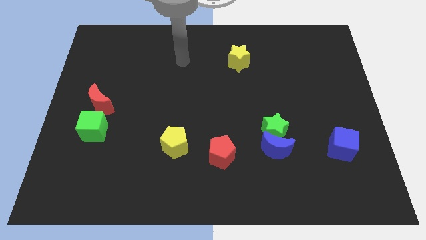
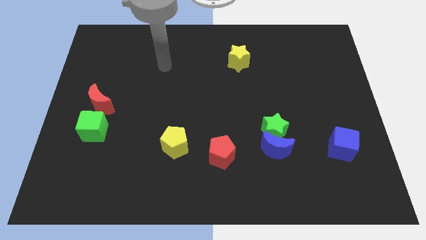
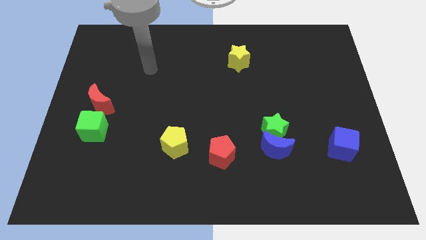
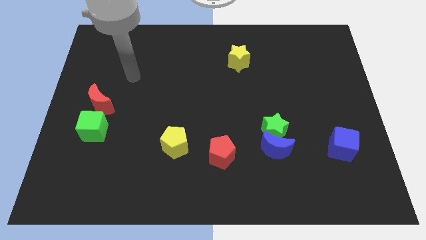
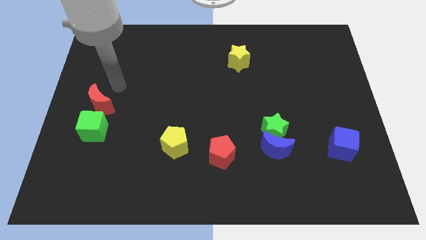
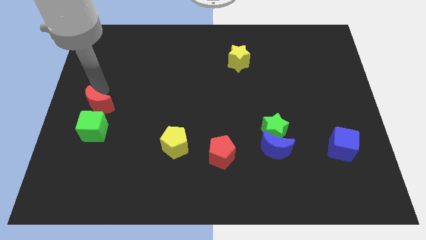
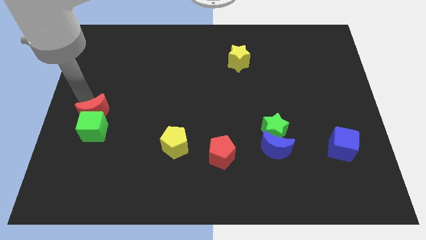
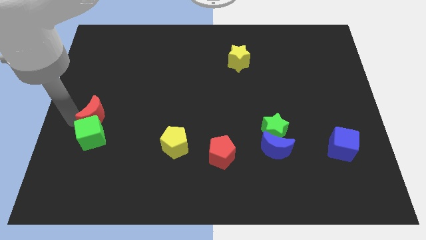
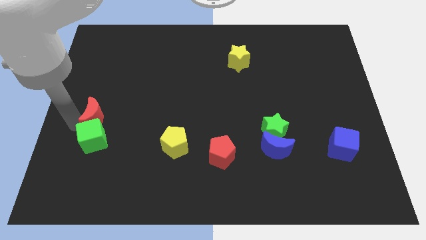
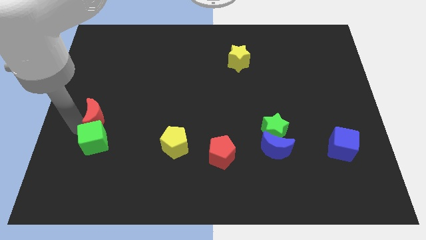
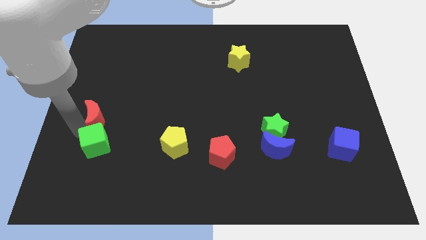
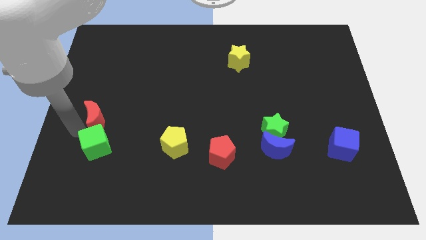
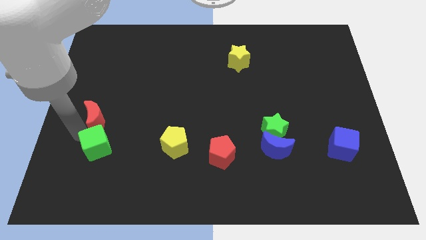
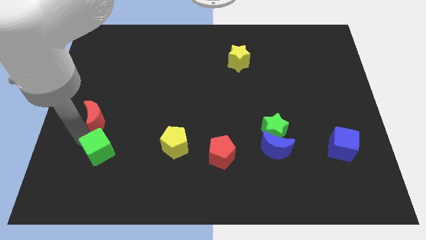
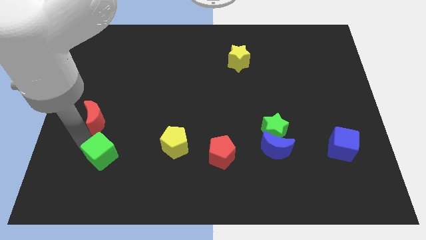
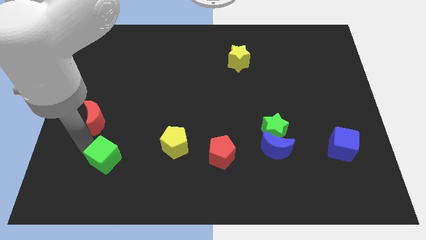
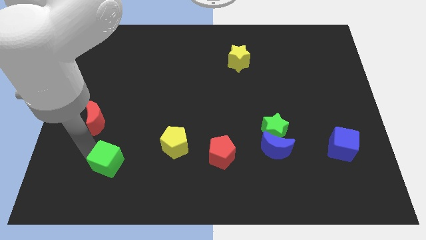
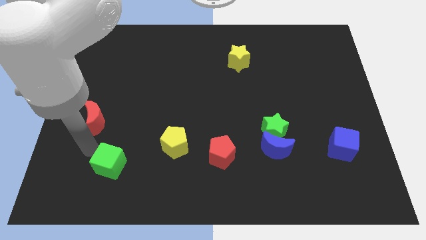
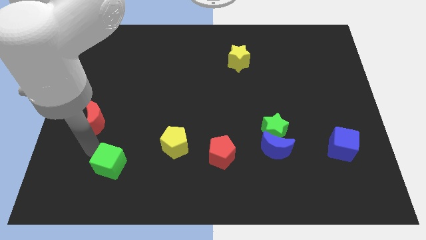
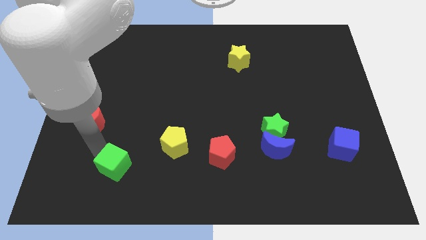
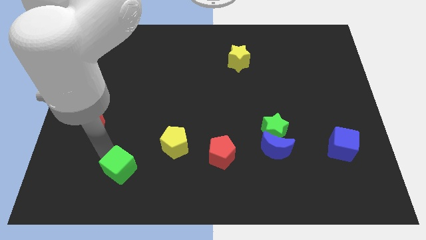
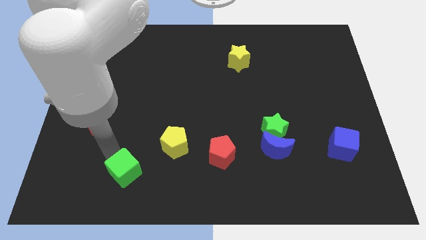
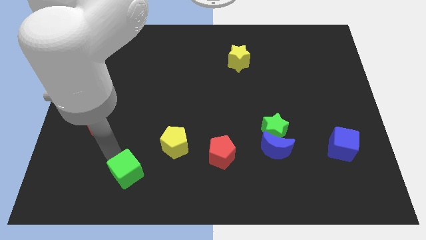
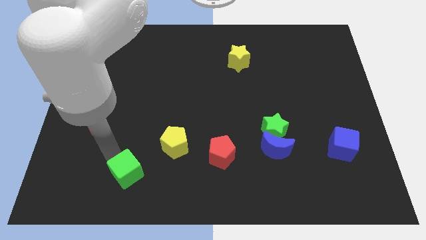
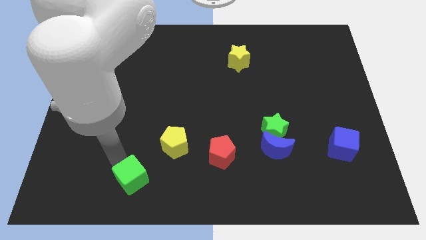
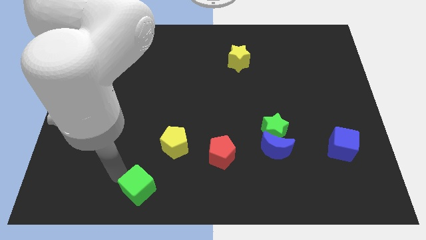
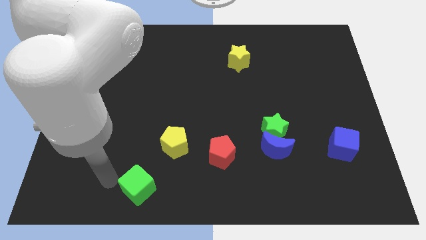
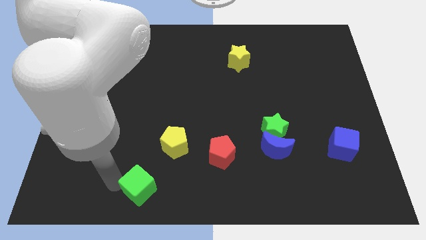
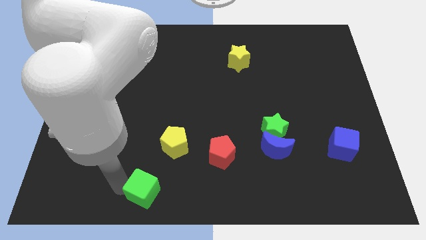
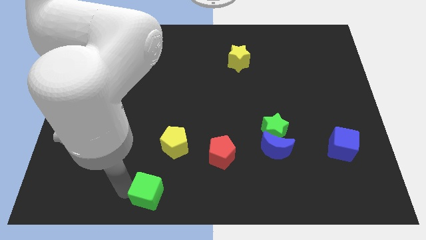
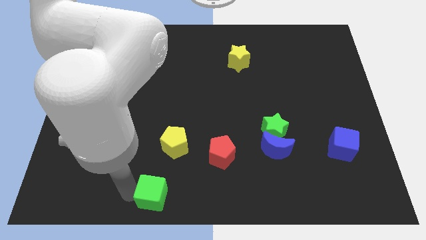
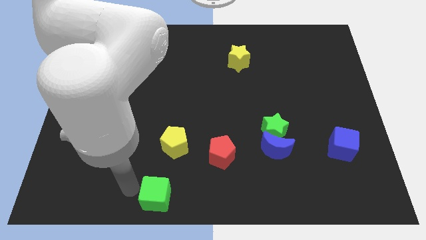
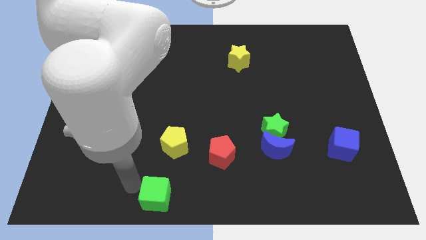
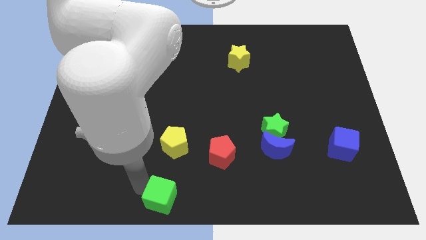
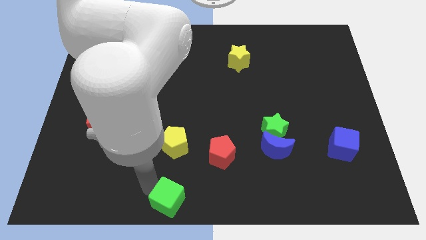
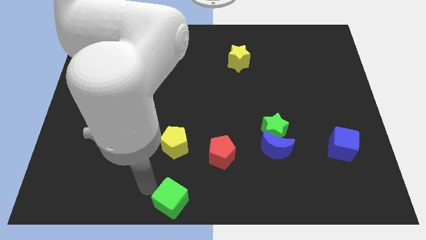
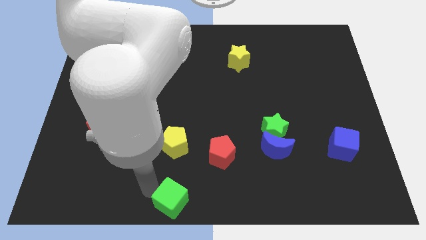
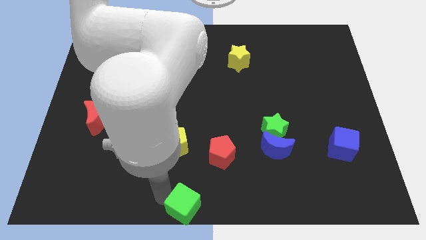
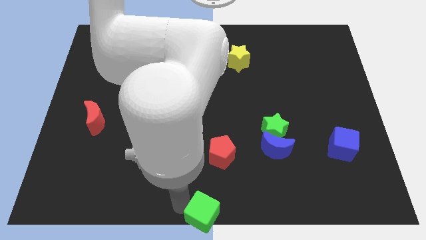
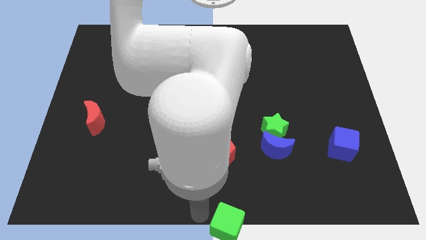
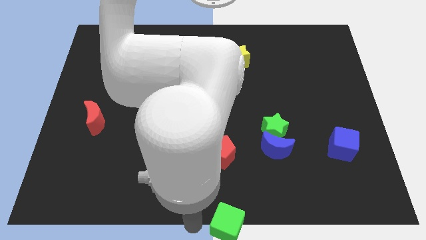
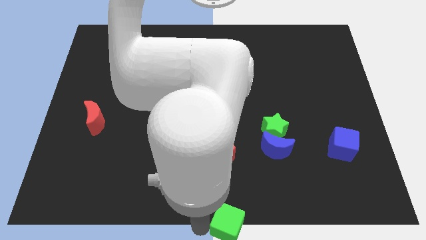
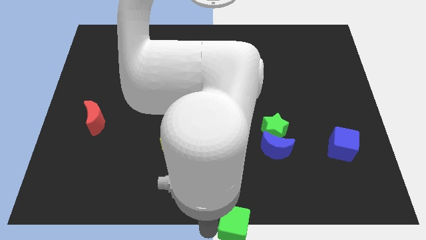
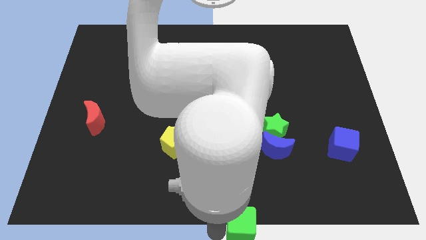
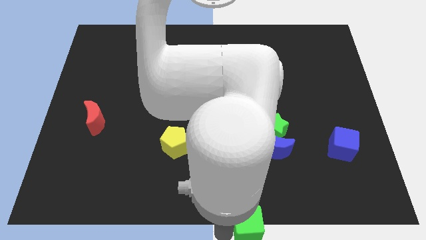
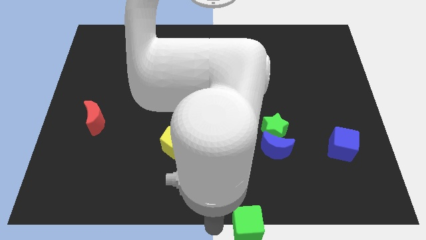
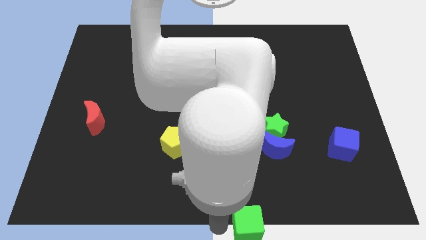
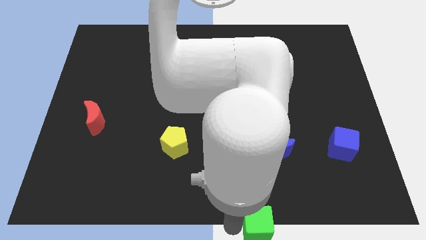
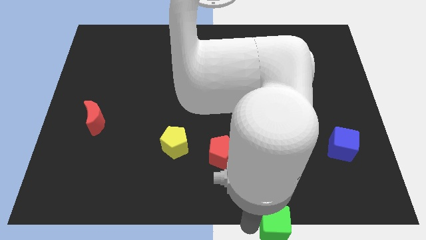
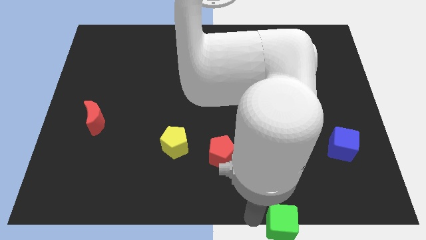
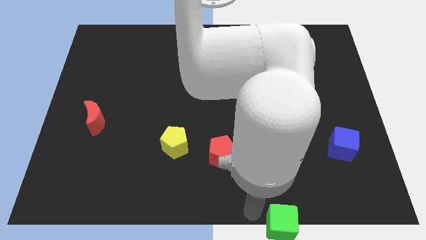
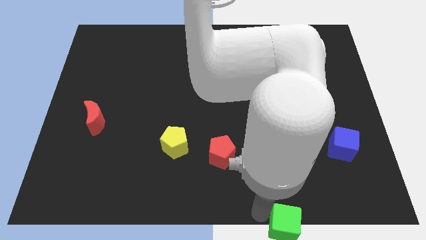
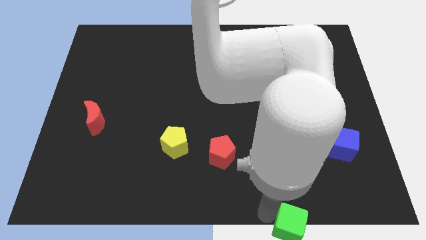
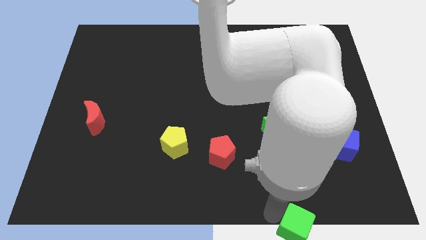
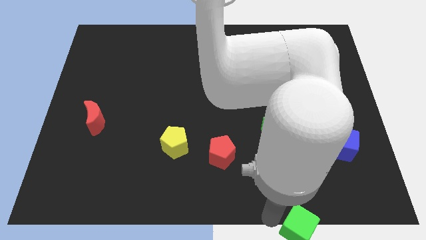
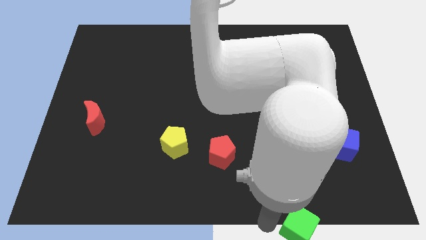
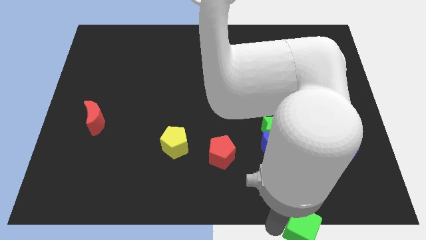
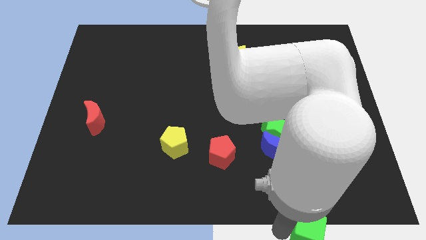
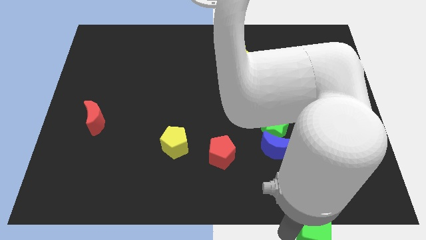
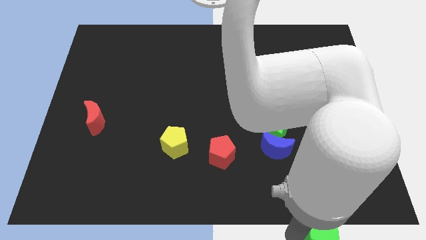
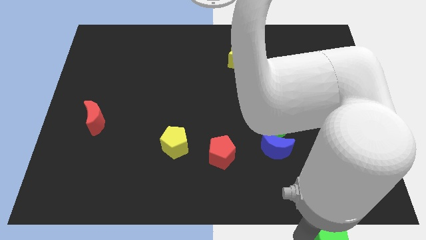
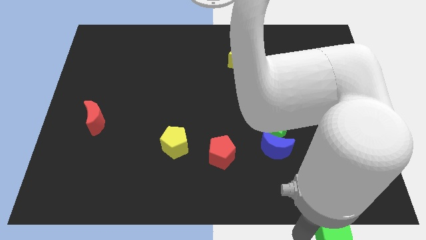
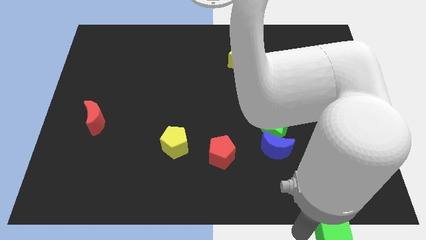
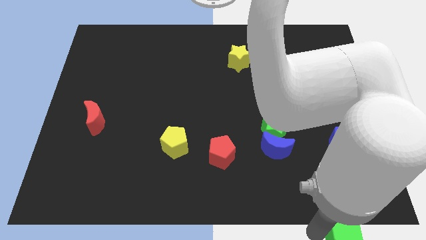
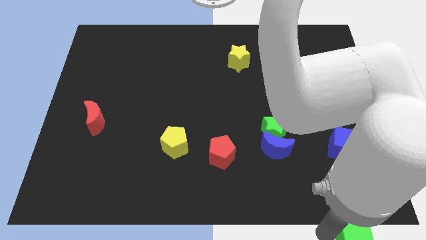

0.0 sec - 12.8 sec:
put the green cube to the bottom right corner
